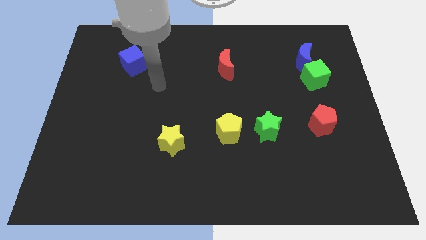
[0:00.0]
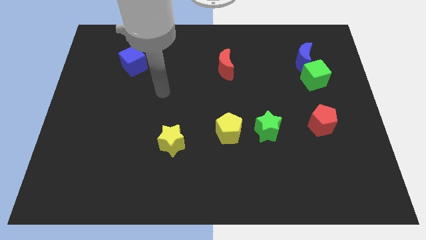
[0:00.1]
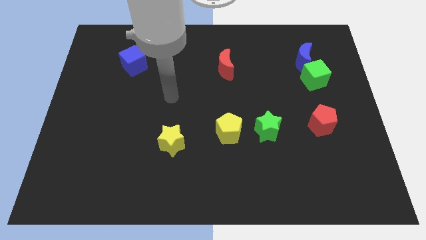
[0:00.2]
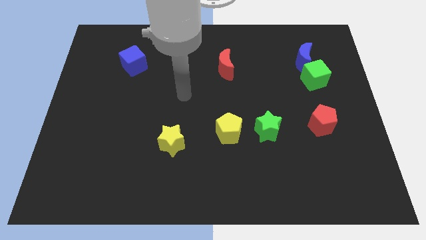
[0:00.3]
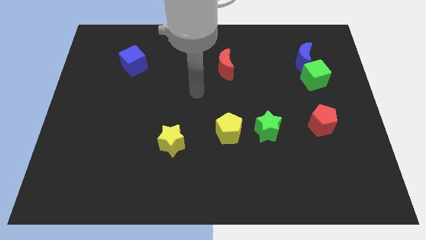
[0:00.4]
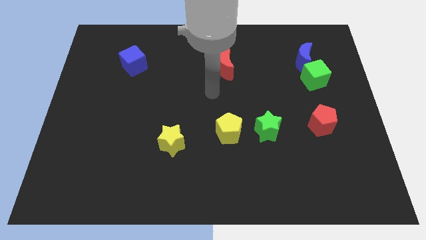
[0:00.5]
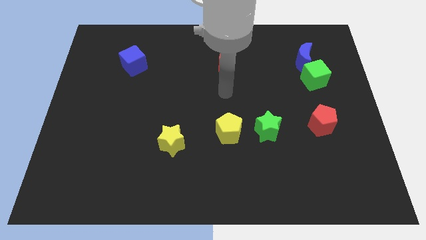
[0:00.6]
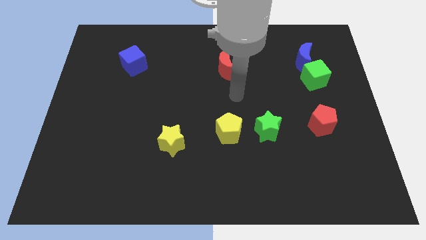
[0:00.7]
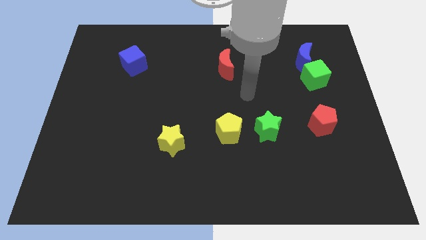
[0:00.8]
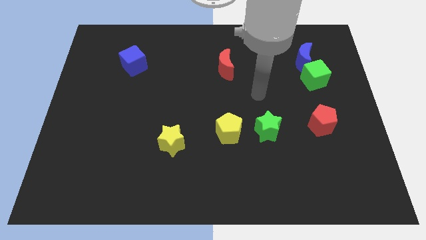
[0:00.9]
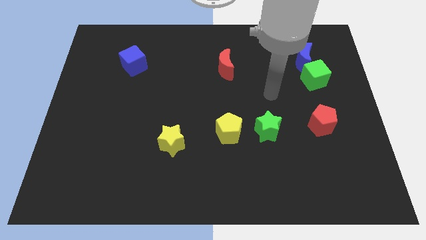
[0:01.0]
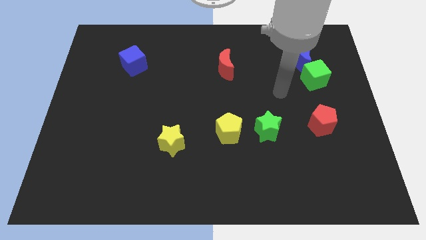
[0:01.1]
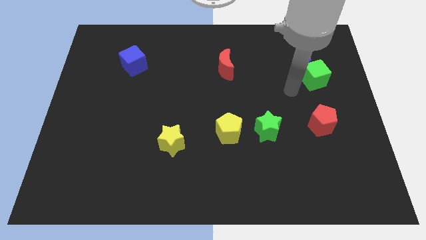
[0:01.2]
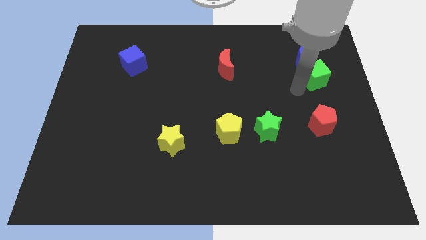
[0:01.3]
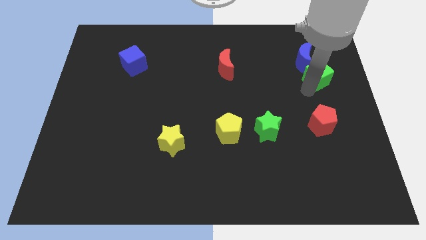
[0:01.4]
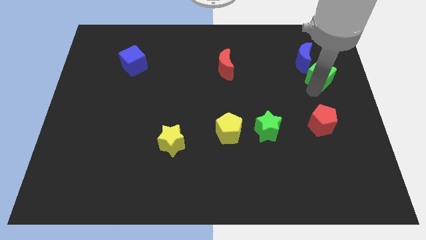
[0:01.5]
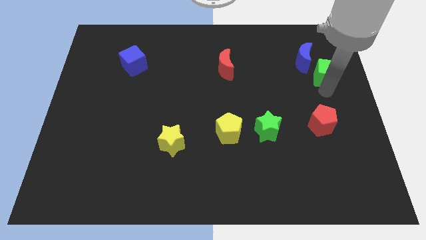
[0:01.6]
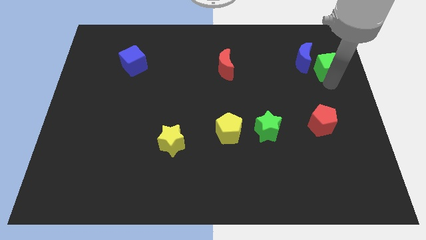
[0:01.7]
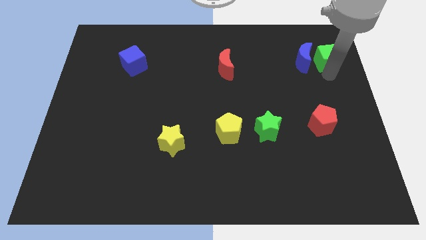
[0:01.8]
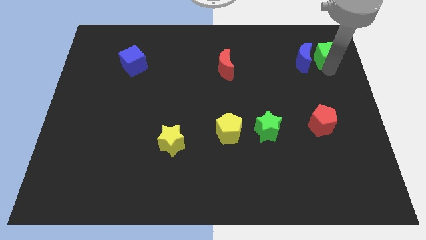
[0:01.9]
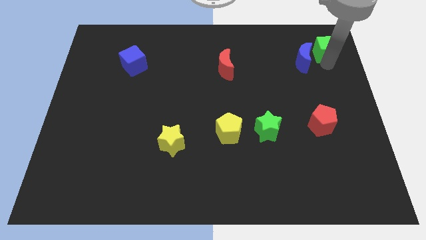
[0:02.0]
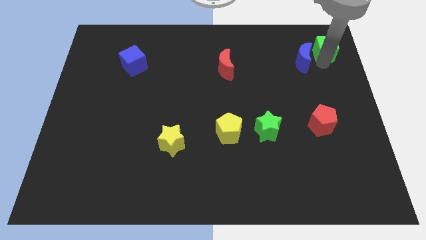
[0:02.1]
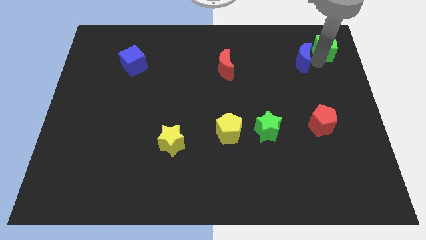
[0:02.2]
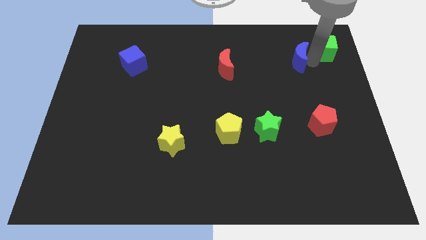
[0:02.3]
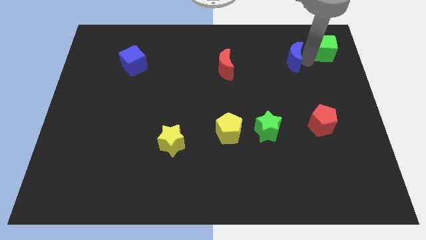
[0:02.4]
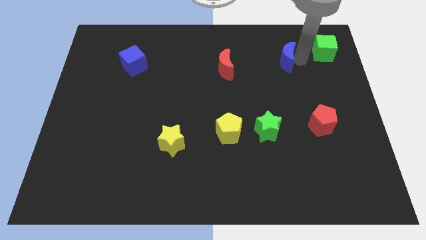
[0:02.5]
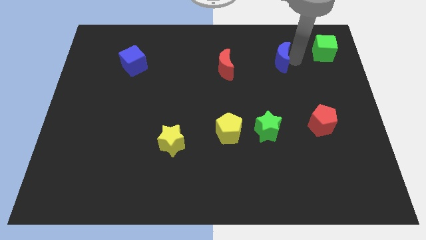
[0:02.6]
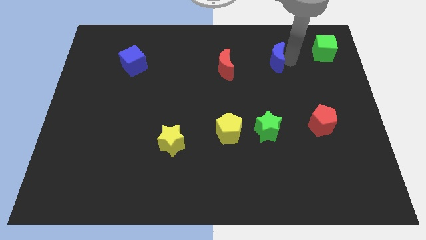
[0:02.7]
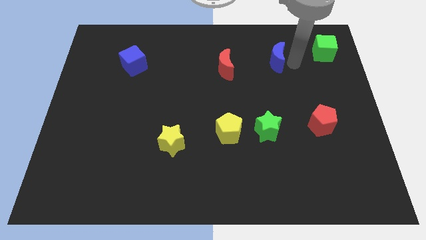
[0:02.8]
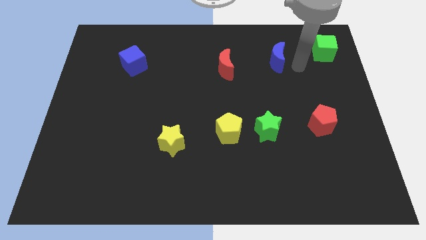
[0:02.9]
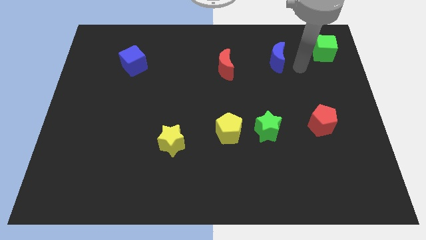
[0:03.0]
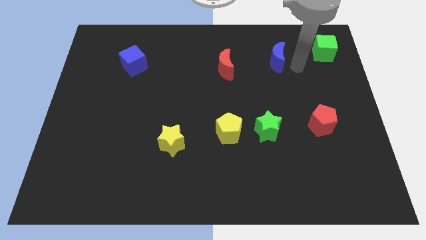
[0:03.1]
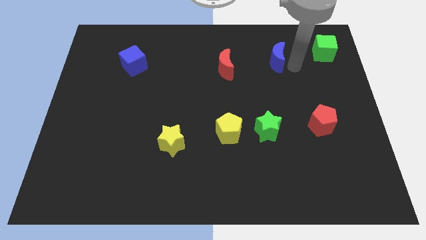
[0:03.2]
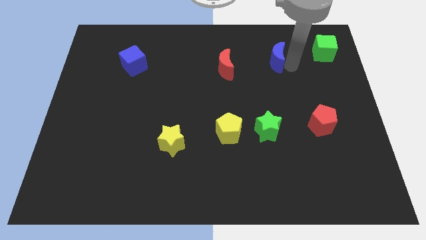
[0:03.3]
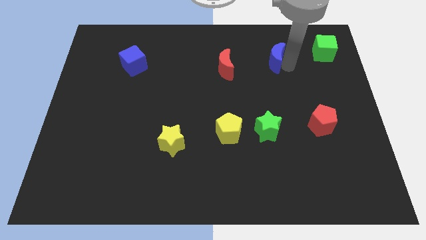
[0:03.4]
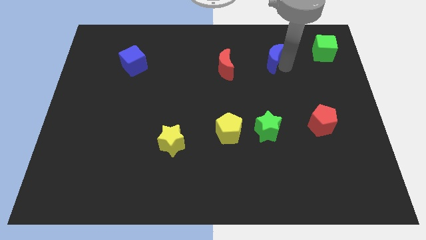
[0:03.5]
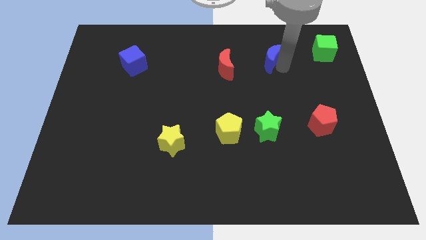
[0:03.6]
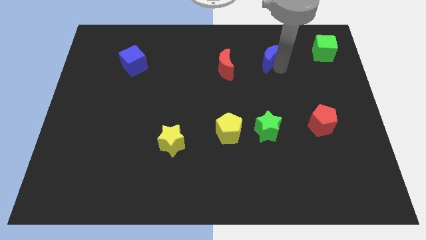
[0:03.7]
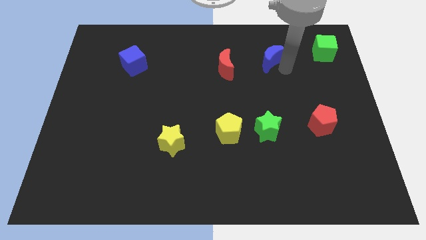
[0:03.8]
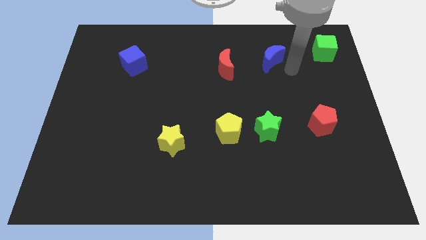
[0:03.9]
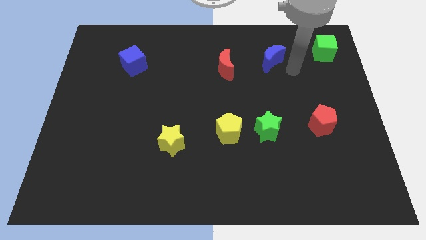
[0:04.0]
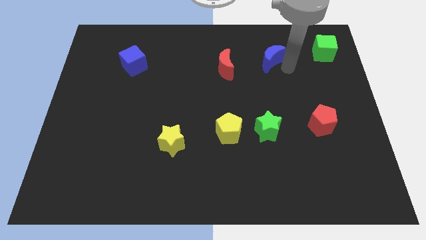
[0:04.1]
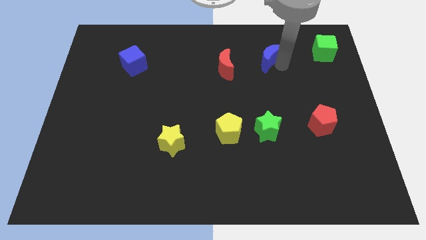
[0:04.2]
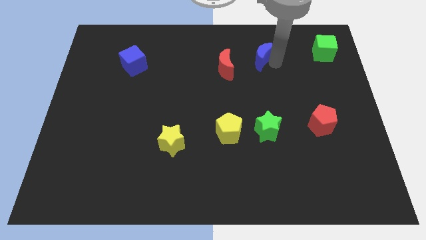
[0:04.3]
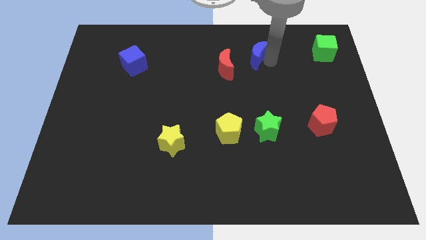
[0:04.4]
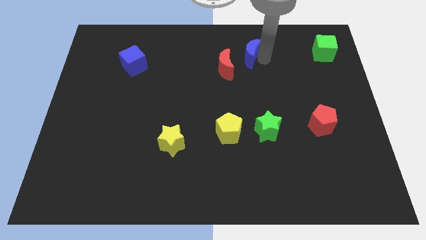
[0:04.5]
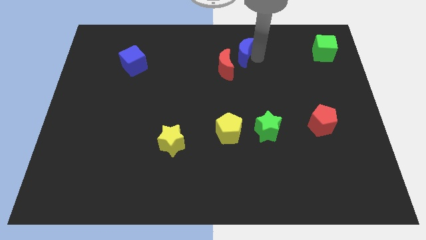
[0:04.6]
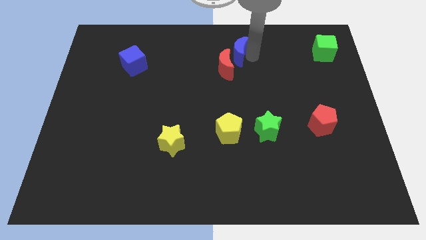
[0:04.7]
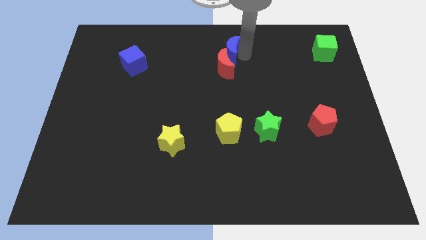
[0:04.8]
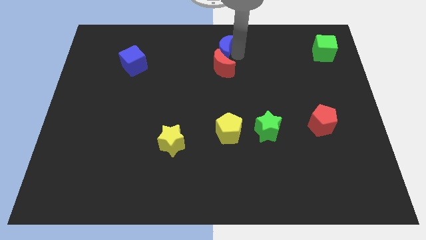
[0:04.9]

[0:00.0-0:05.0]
move the blue moon left

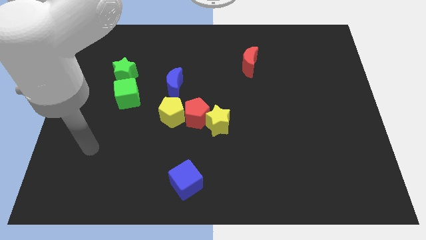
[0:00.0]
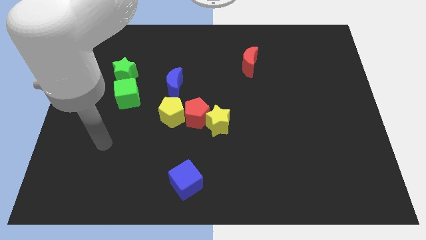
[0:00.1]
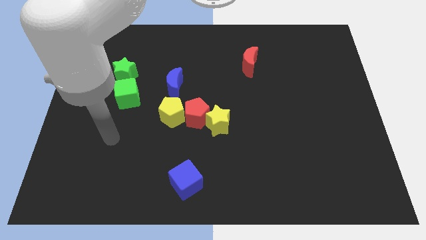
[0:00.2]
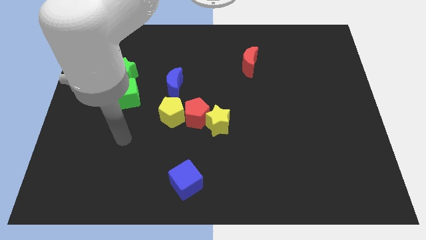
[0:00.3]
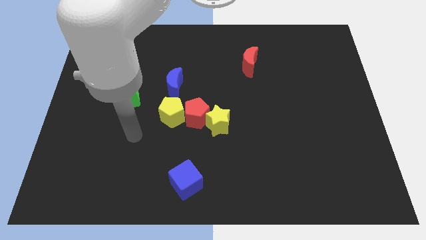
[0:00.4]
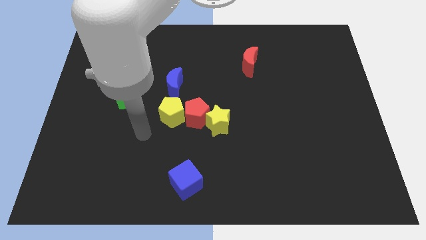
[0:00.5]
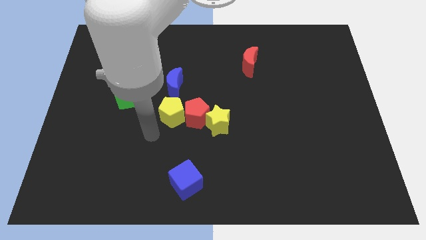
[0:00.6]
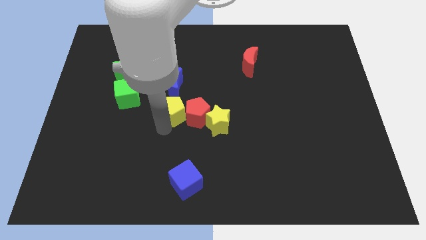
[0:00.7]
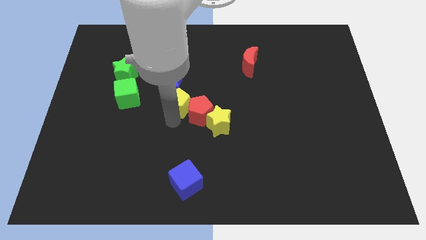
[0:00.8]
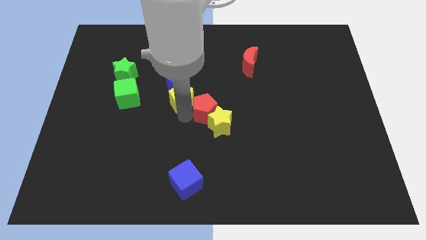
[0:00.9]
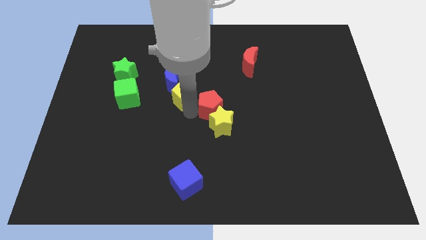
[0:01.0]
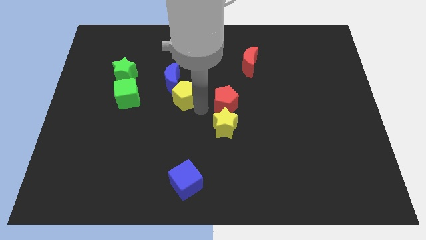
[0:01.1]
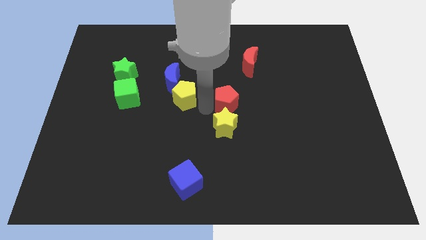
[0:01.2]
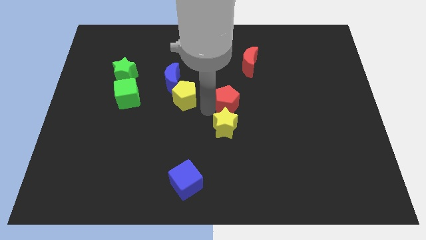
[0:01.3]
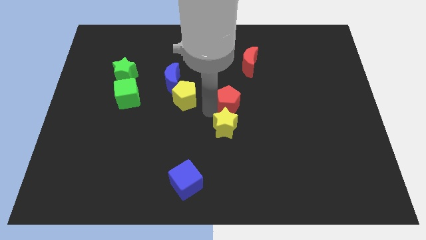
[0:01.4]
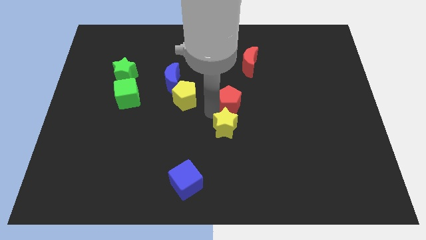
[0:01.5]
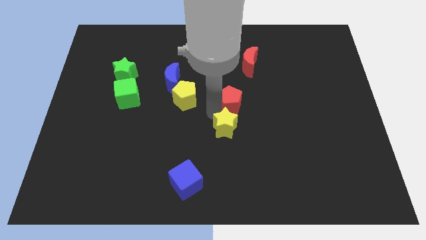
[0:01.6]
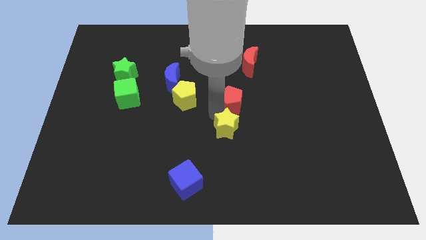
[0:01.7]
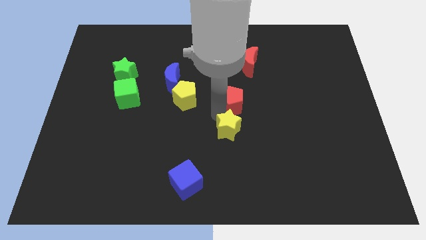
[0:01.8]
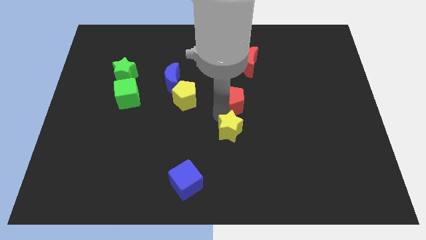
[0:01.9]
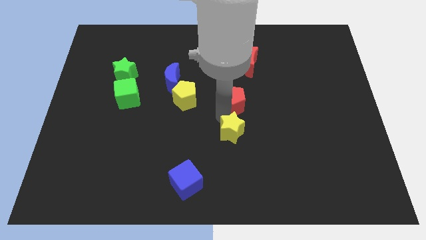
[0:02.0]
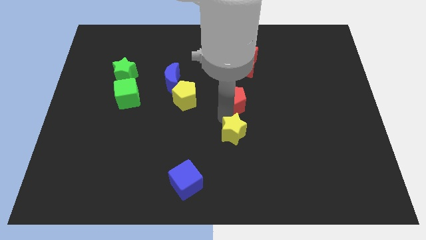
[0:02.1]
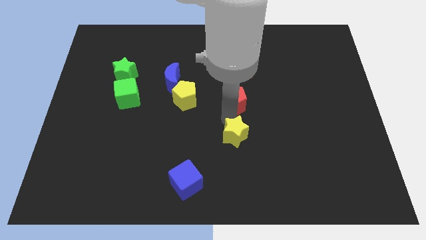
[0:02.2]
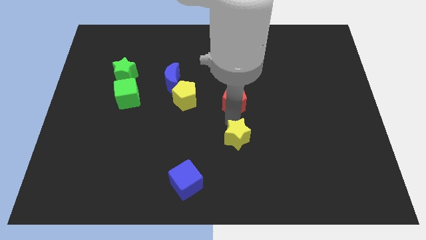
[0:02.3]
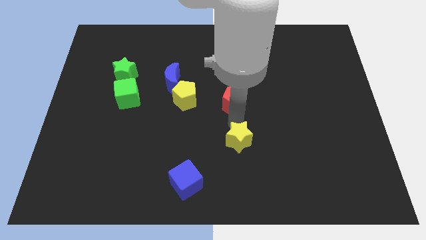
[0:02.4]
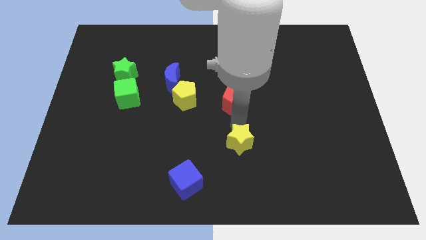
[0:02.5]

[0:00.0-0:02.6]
slide the yellow star downwards and right diagonally slightly

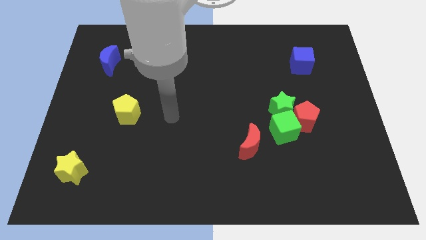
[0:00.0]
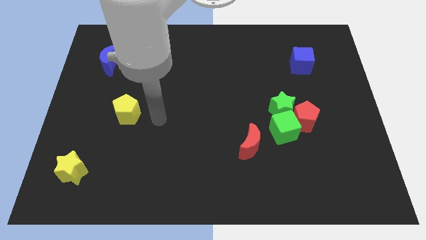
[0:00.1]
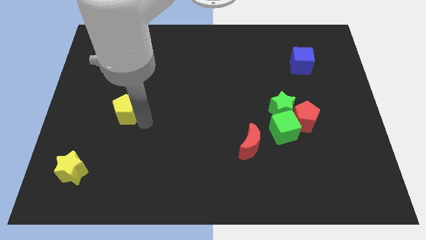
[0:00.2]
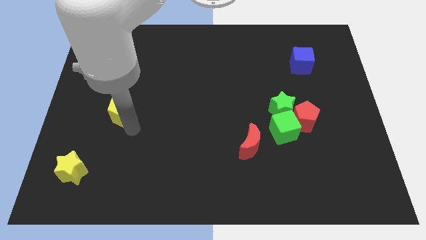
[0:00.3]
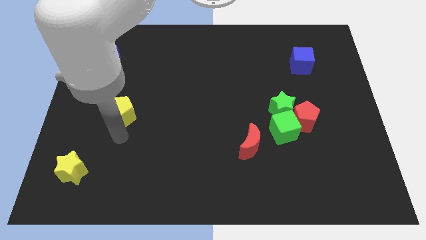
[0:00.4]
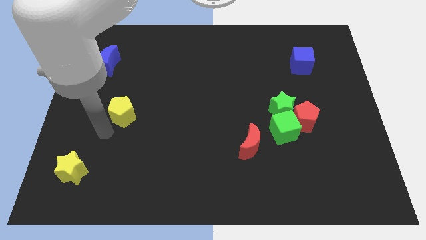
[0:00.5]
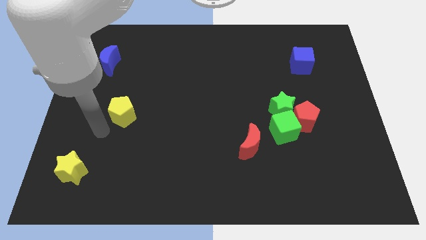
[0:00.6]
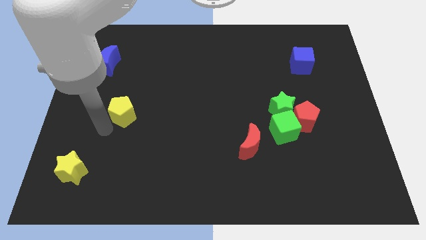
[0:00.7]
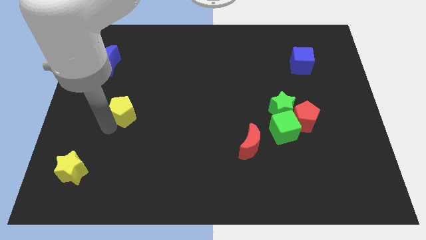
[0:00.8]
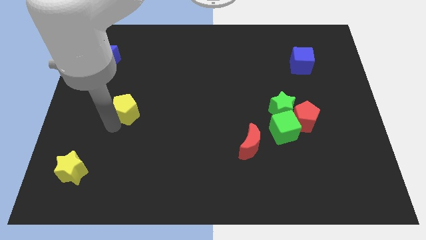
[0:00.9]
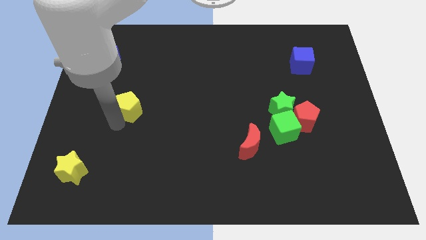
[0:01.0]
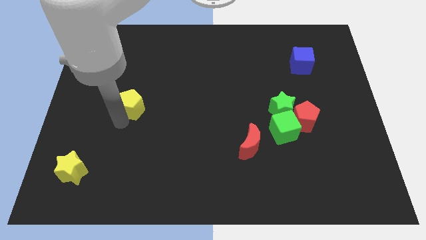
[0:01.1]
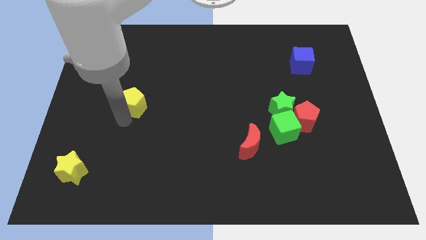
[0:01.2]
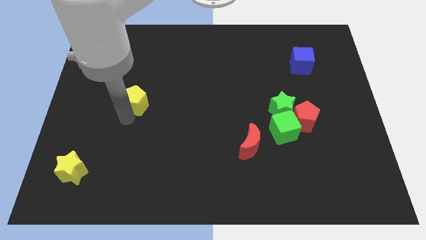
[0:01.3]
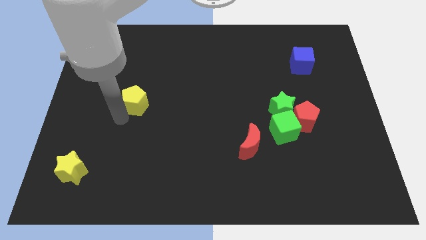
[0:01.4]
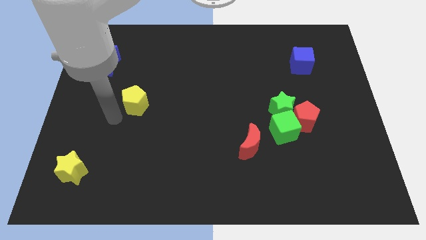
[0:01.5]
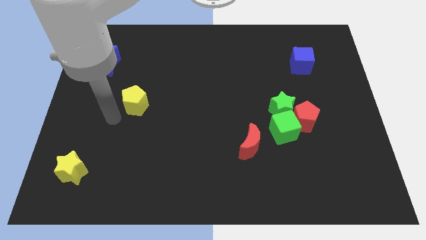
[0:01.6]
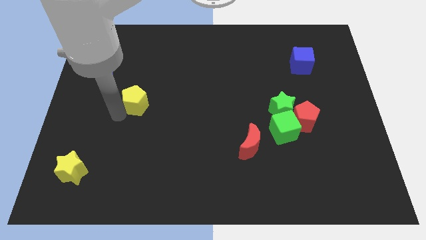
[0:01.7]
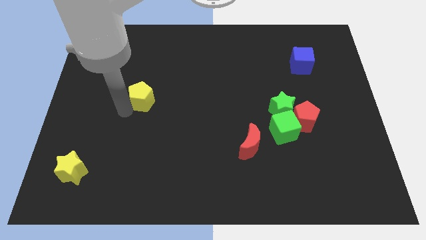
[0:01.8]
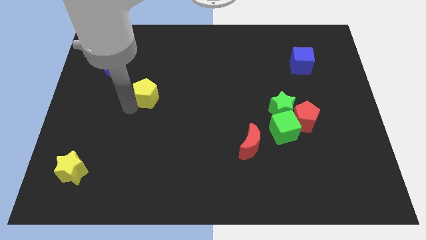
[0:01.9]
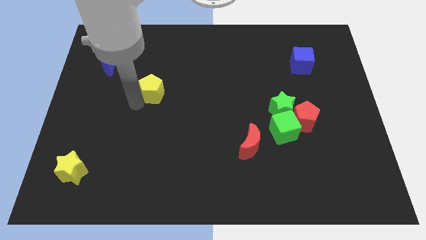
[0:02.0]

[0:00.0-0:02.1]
push the yellow pentagon slightly up and then right
